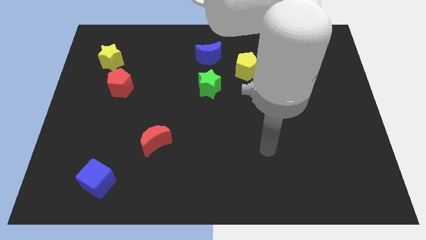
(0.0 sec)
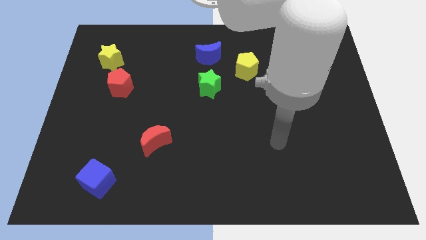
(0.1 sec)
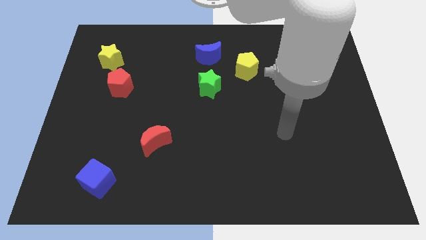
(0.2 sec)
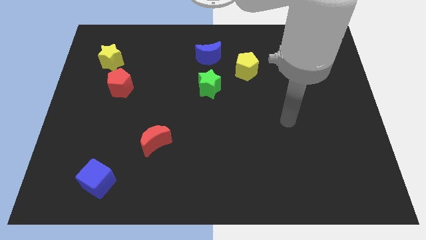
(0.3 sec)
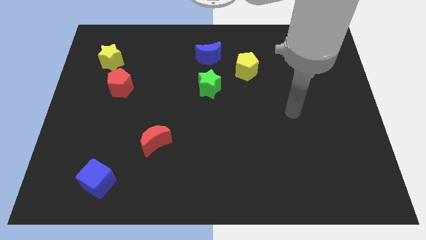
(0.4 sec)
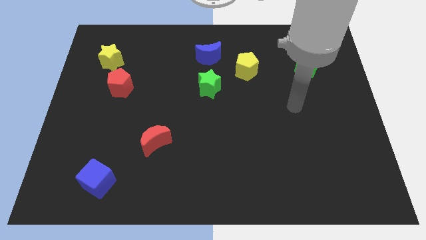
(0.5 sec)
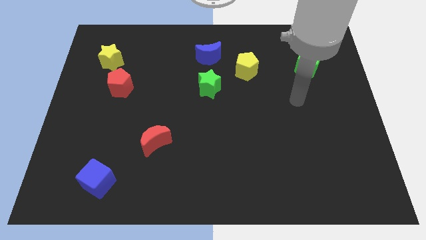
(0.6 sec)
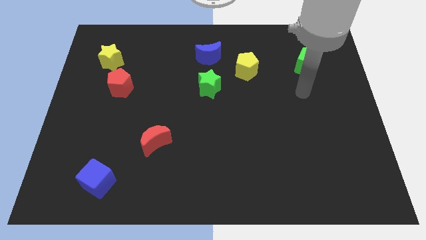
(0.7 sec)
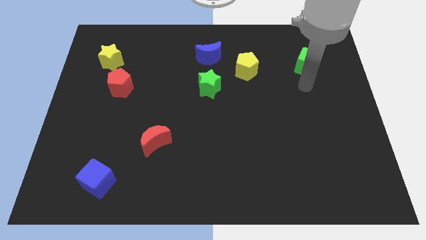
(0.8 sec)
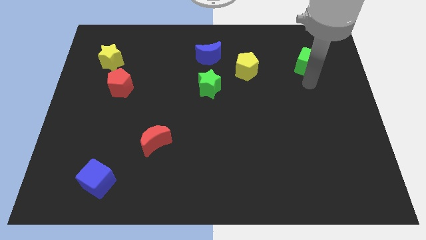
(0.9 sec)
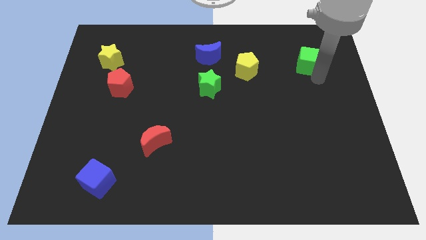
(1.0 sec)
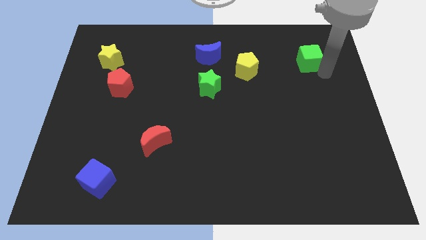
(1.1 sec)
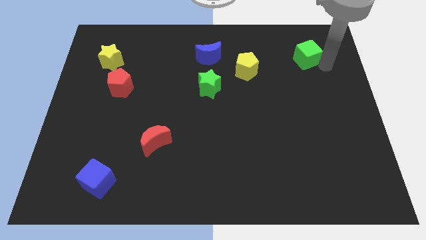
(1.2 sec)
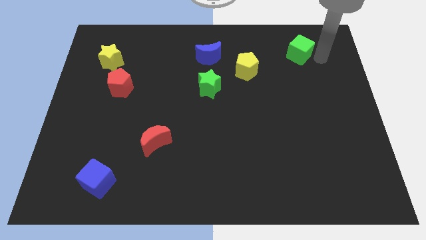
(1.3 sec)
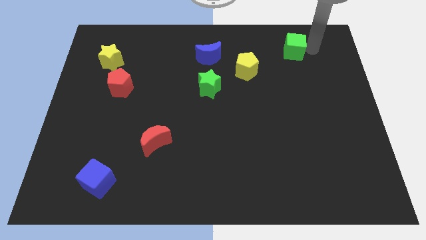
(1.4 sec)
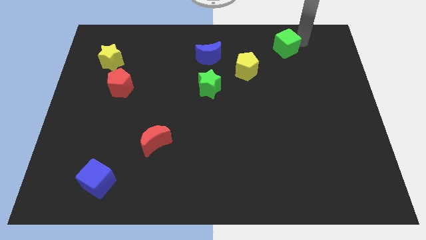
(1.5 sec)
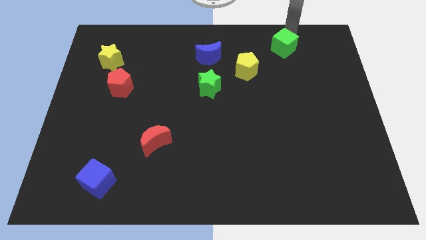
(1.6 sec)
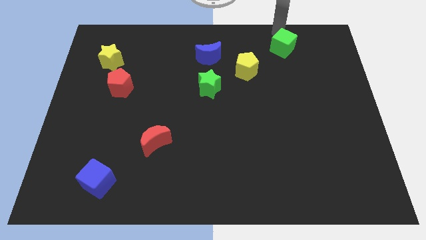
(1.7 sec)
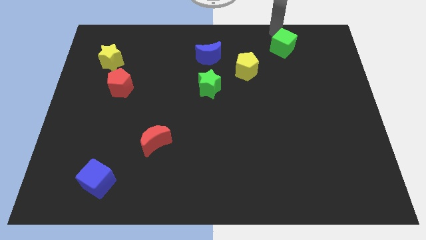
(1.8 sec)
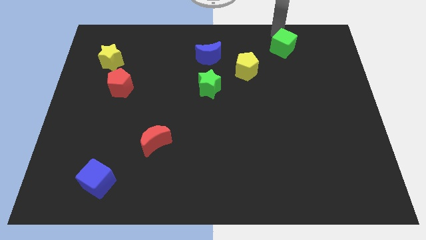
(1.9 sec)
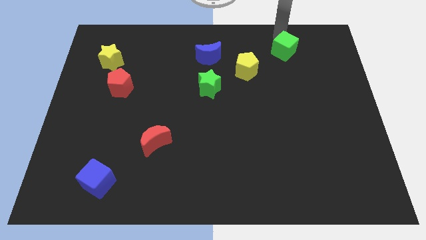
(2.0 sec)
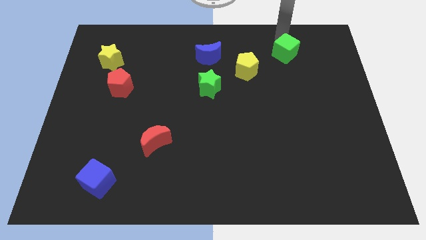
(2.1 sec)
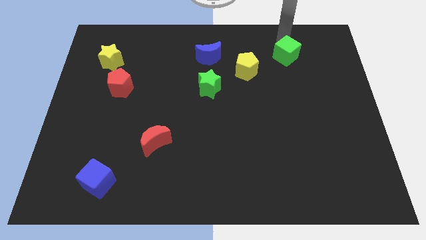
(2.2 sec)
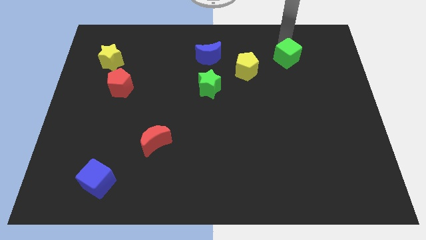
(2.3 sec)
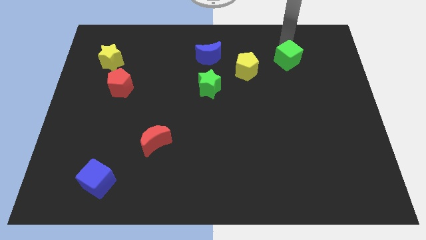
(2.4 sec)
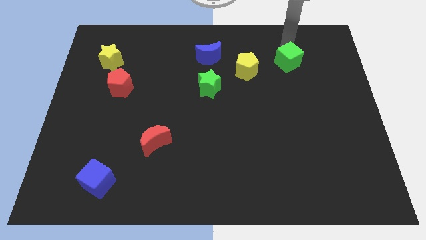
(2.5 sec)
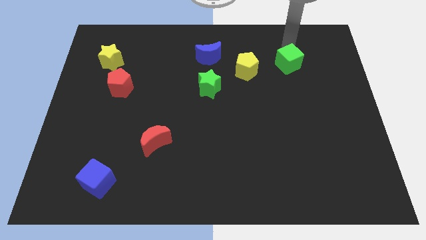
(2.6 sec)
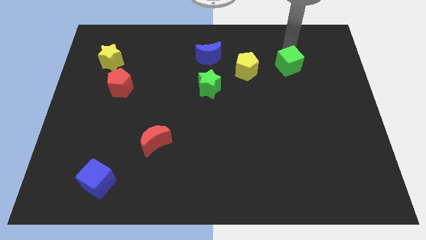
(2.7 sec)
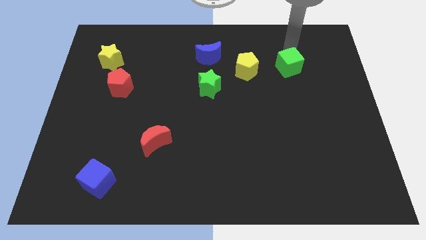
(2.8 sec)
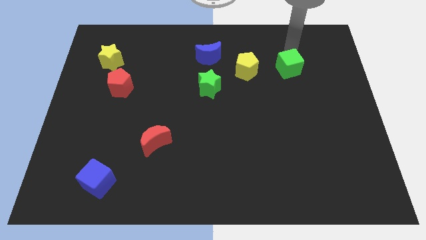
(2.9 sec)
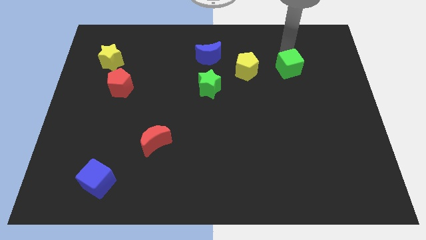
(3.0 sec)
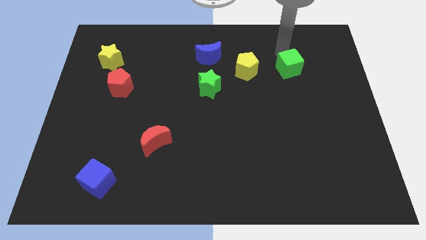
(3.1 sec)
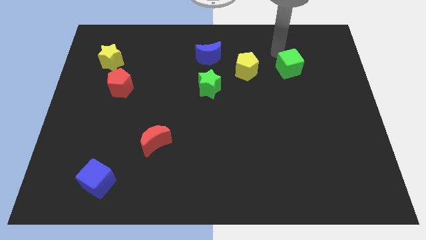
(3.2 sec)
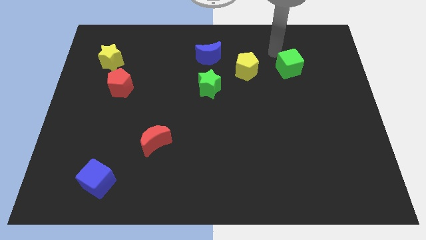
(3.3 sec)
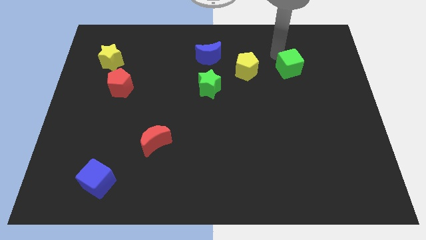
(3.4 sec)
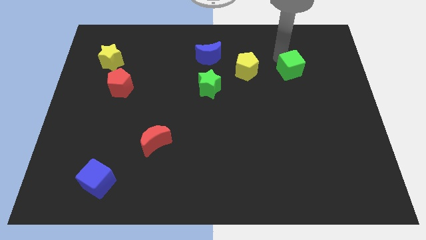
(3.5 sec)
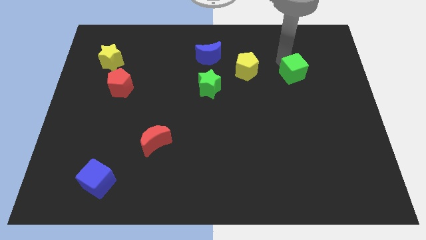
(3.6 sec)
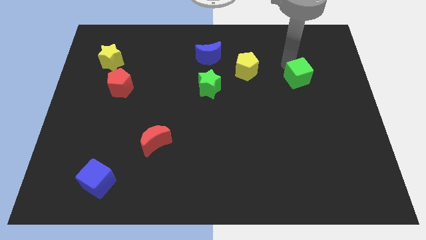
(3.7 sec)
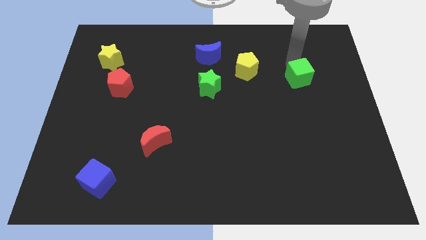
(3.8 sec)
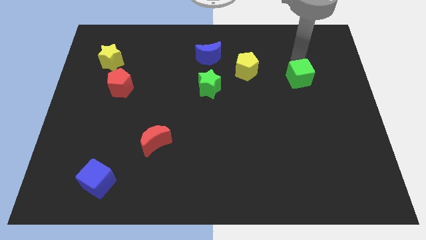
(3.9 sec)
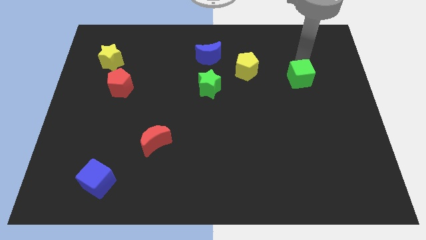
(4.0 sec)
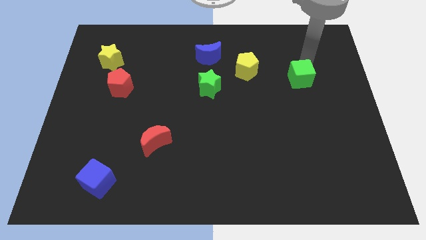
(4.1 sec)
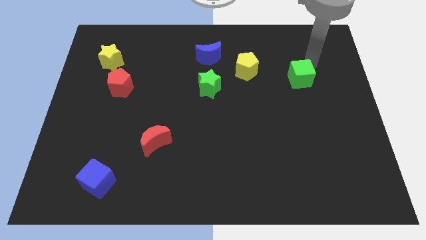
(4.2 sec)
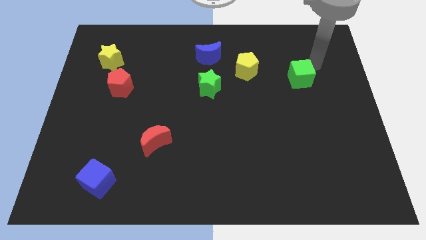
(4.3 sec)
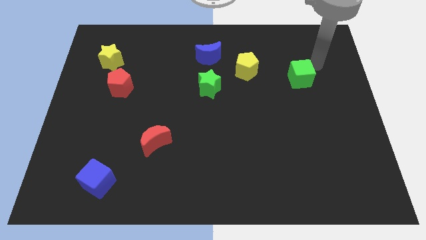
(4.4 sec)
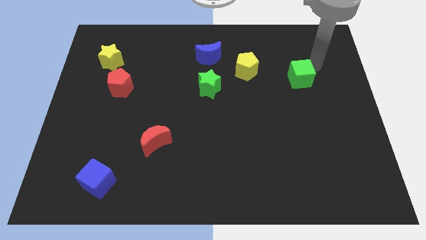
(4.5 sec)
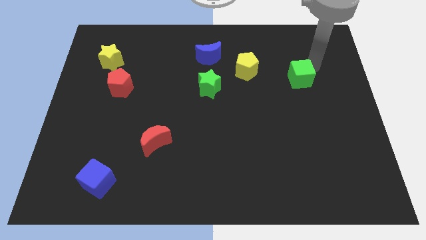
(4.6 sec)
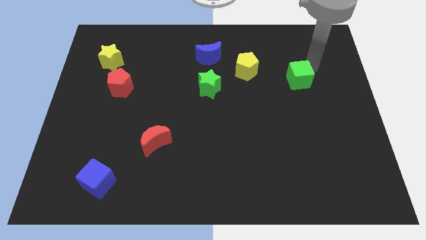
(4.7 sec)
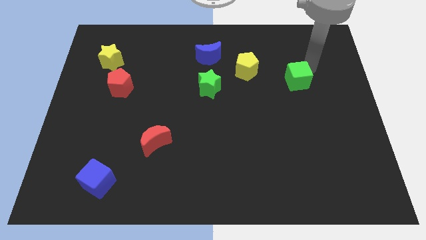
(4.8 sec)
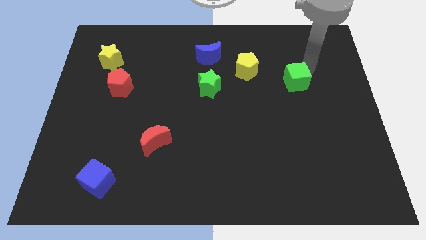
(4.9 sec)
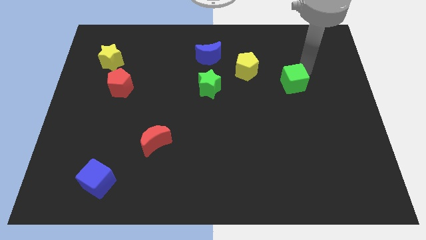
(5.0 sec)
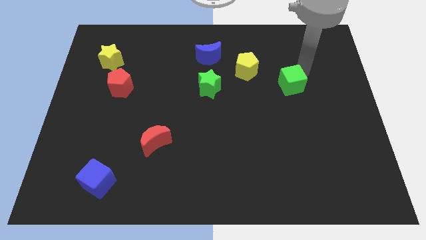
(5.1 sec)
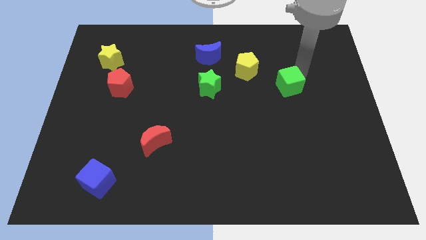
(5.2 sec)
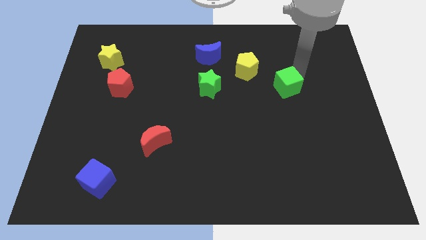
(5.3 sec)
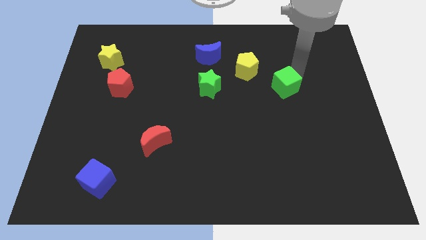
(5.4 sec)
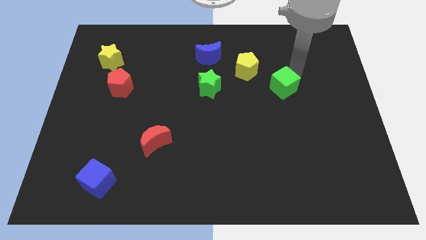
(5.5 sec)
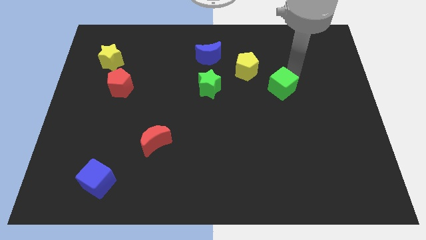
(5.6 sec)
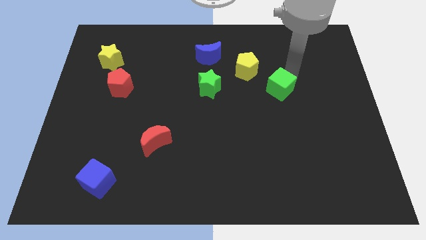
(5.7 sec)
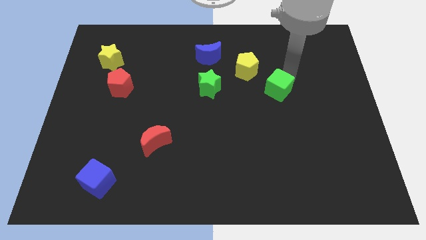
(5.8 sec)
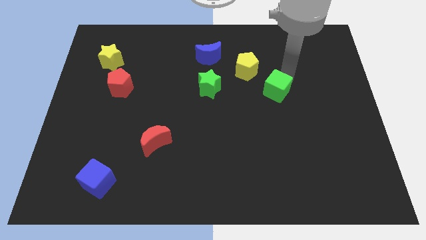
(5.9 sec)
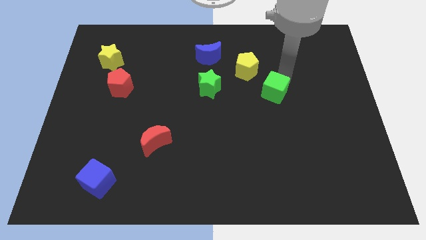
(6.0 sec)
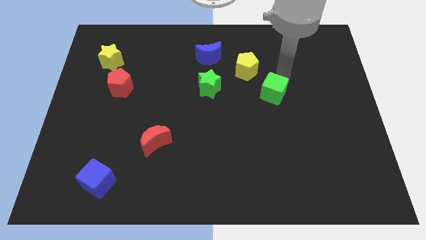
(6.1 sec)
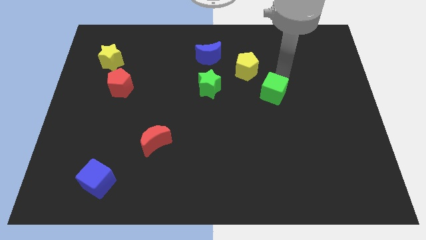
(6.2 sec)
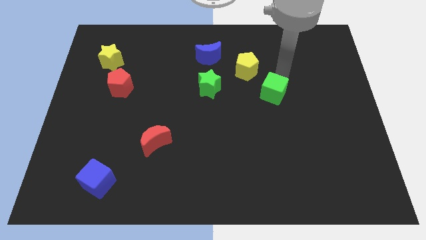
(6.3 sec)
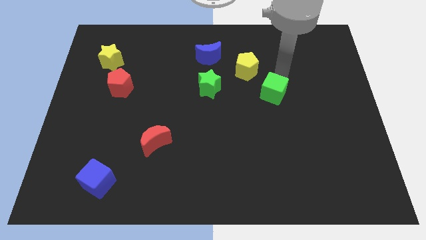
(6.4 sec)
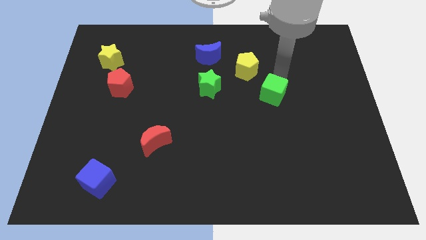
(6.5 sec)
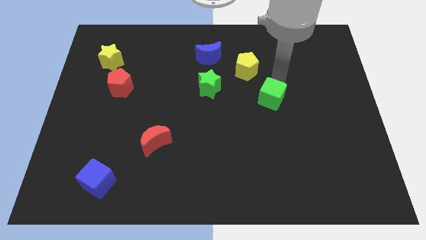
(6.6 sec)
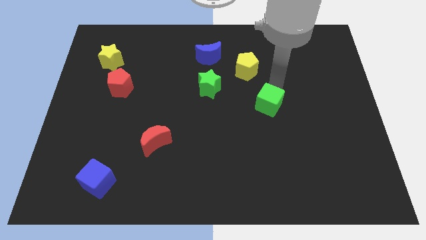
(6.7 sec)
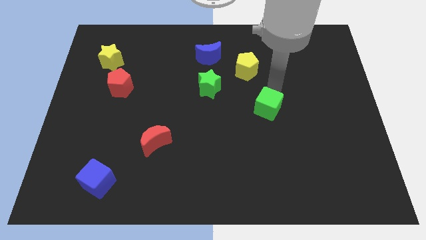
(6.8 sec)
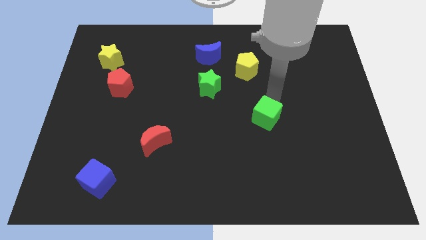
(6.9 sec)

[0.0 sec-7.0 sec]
slide the green cube down and then to the left

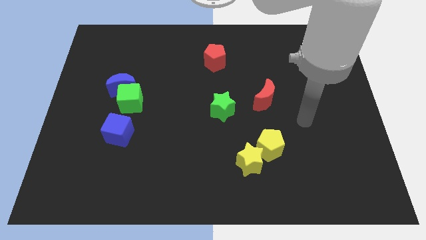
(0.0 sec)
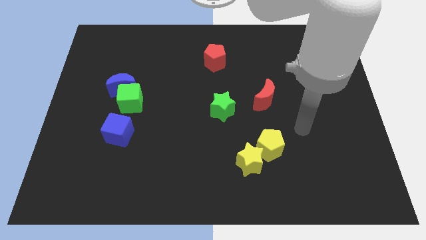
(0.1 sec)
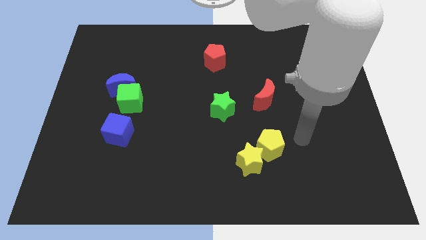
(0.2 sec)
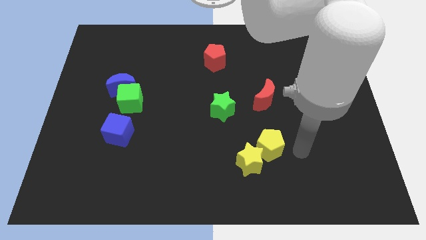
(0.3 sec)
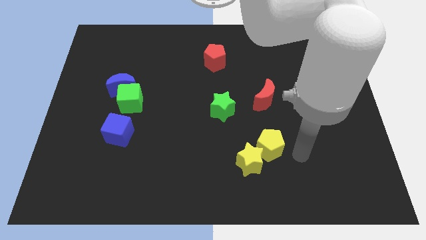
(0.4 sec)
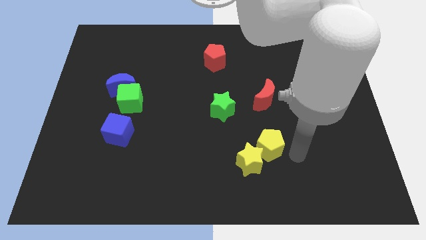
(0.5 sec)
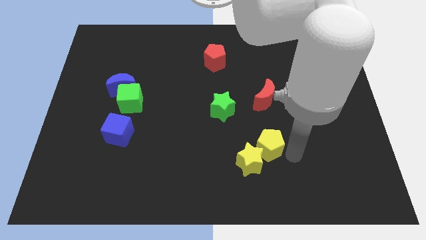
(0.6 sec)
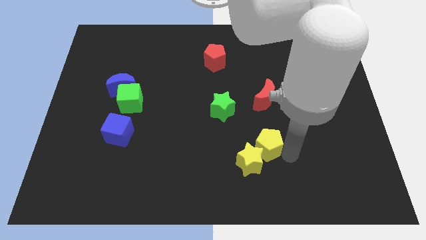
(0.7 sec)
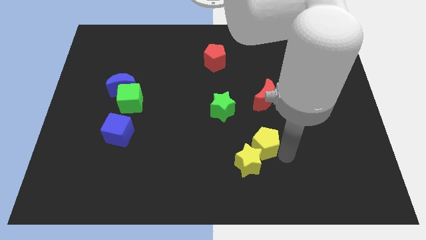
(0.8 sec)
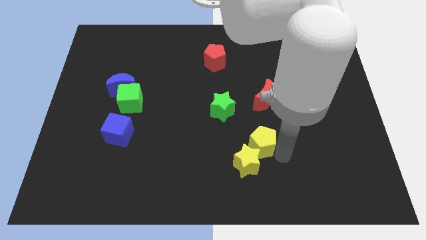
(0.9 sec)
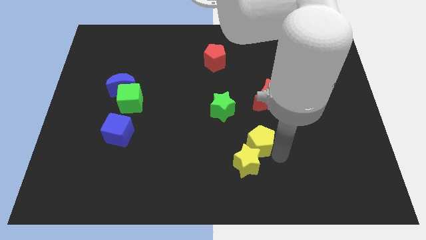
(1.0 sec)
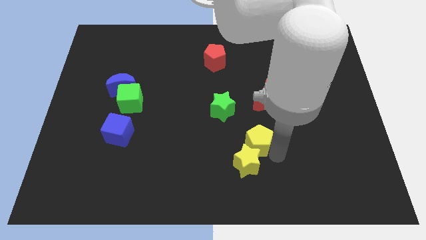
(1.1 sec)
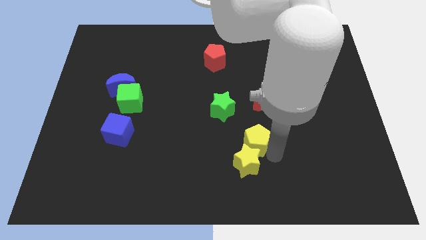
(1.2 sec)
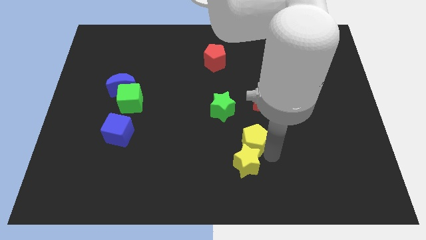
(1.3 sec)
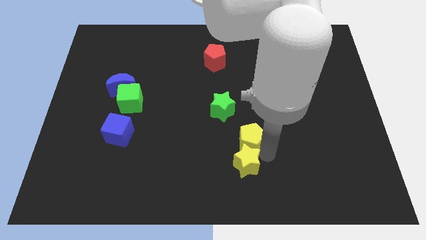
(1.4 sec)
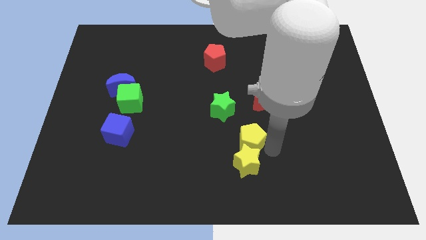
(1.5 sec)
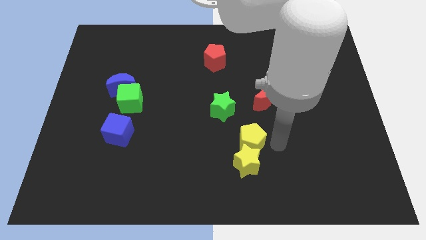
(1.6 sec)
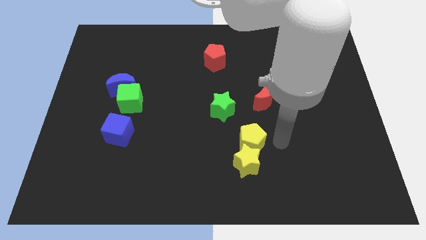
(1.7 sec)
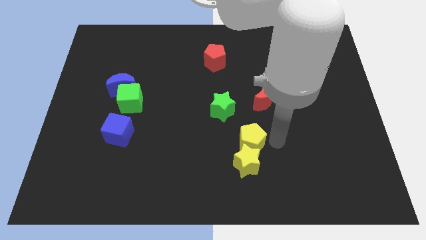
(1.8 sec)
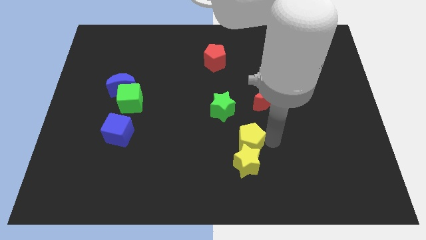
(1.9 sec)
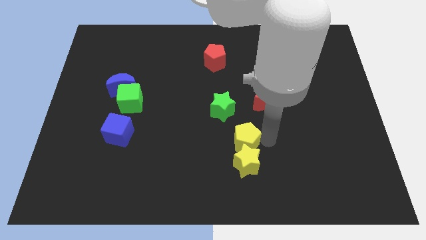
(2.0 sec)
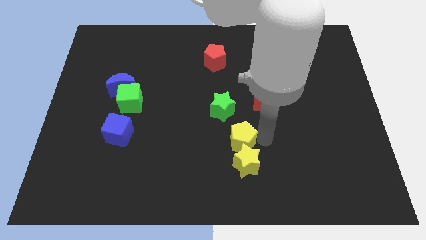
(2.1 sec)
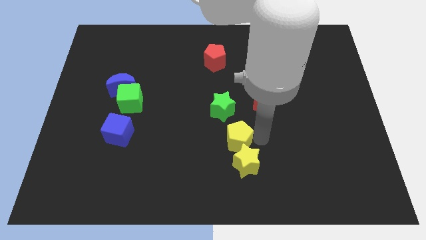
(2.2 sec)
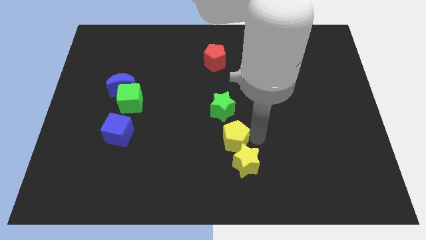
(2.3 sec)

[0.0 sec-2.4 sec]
move the yellow pentagon to the left a little bit
